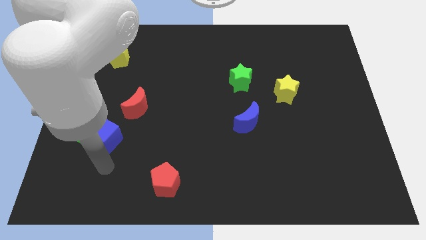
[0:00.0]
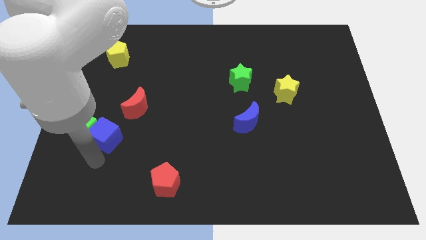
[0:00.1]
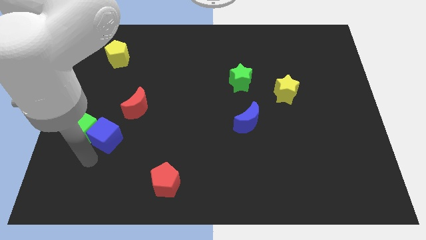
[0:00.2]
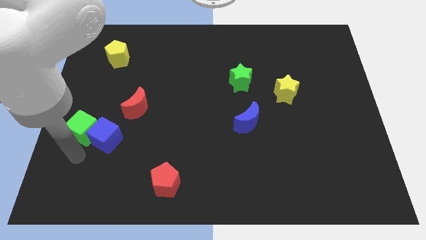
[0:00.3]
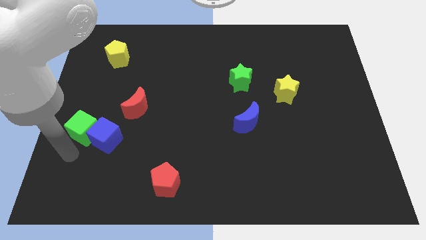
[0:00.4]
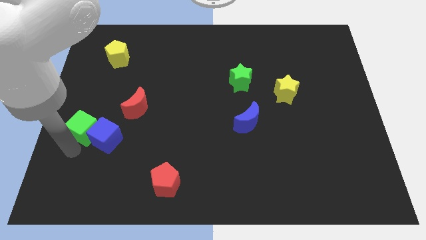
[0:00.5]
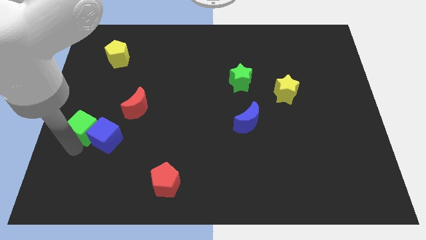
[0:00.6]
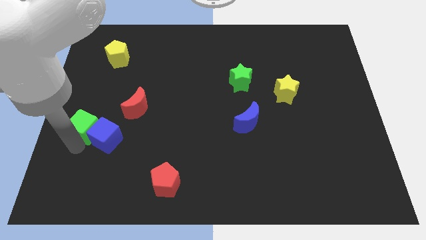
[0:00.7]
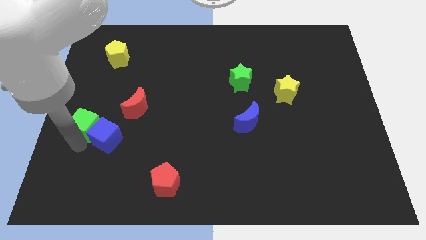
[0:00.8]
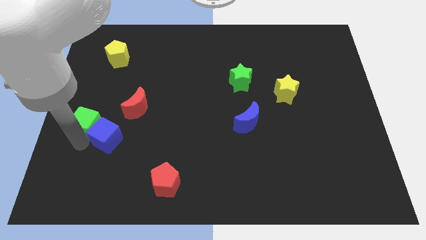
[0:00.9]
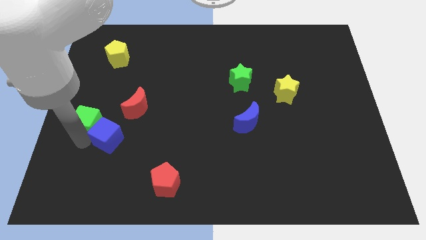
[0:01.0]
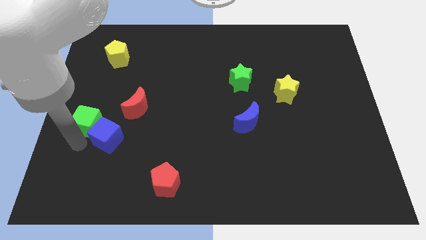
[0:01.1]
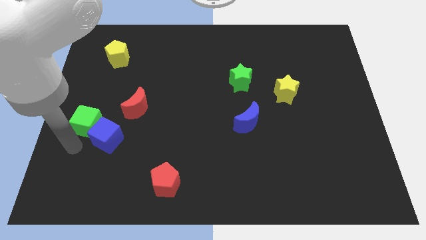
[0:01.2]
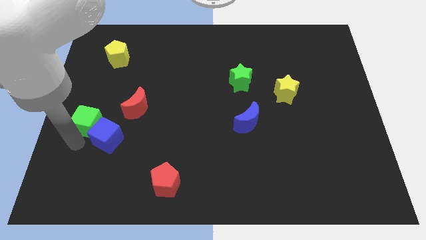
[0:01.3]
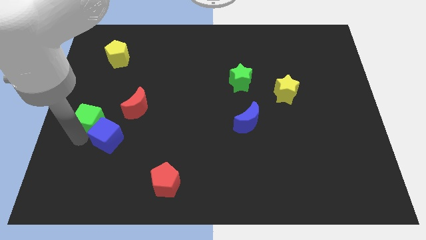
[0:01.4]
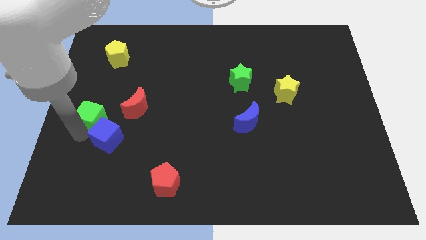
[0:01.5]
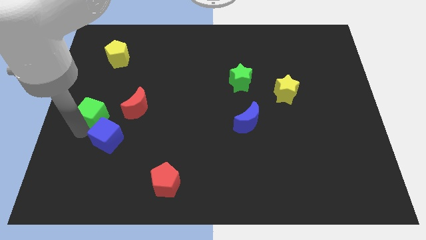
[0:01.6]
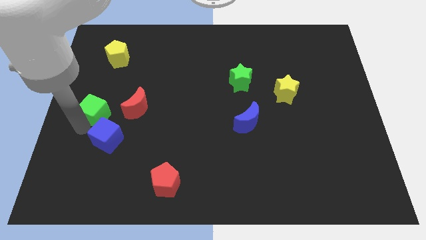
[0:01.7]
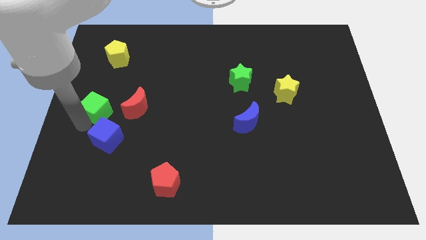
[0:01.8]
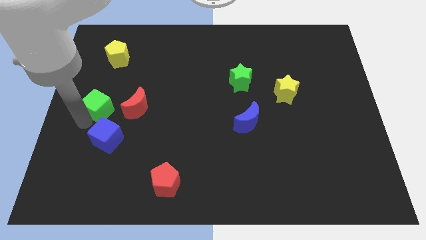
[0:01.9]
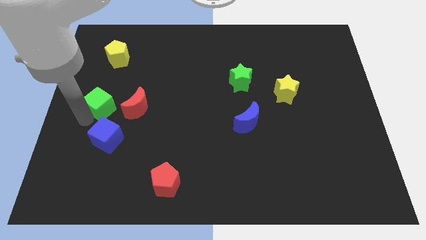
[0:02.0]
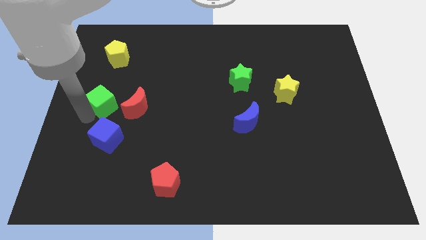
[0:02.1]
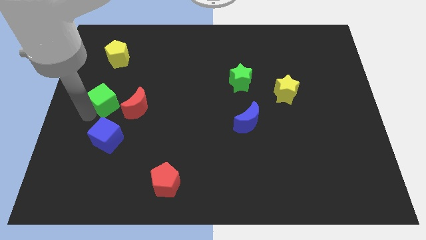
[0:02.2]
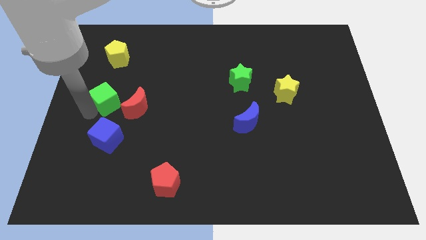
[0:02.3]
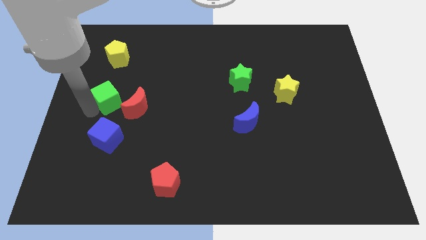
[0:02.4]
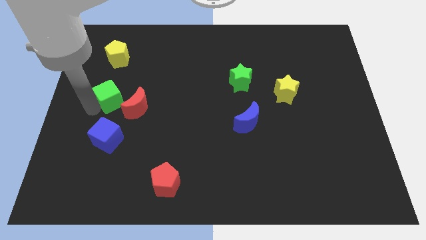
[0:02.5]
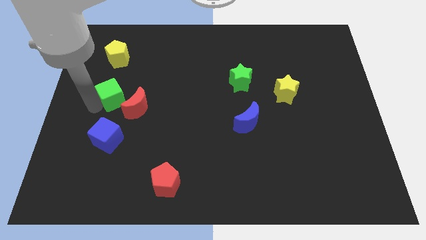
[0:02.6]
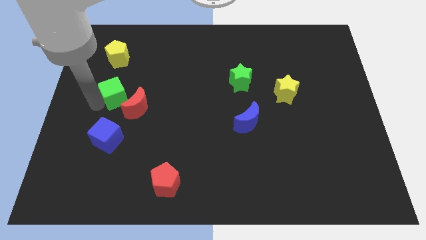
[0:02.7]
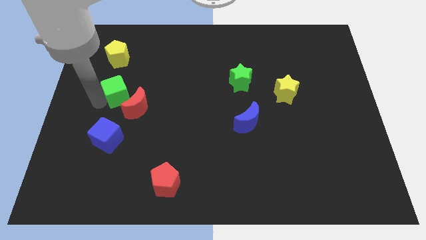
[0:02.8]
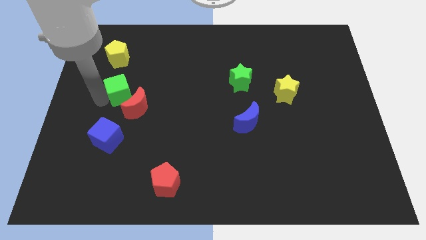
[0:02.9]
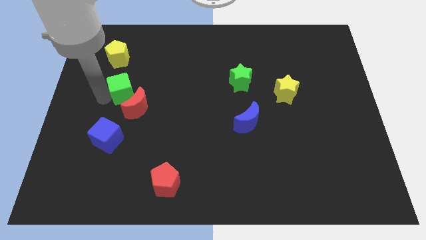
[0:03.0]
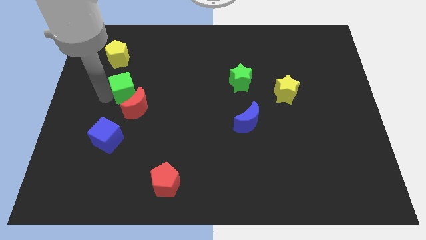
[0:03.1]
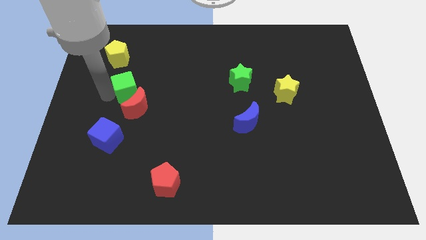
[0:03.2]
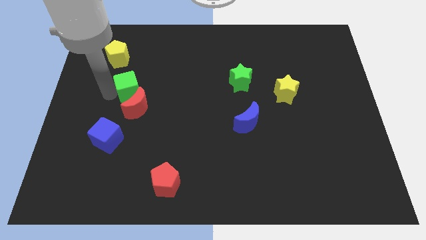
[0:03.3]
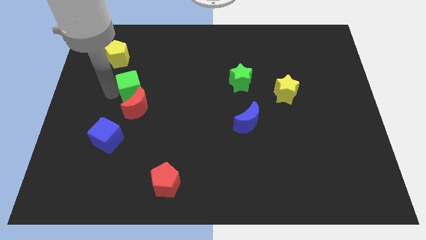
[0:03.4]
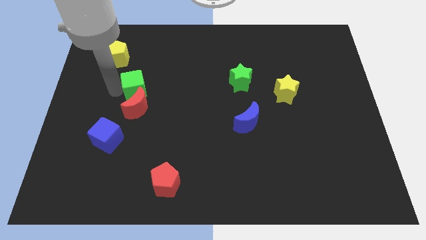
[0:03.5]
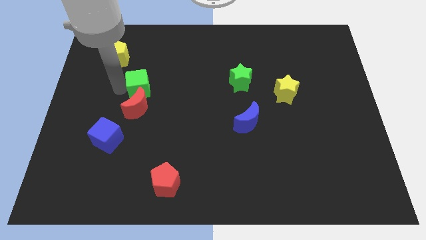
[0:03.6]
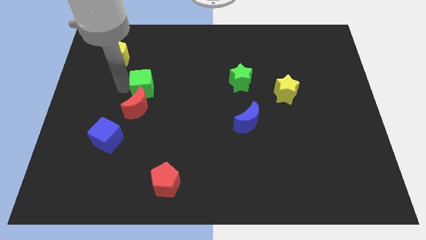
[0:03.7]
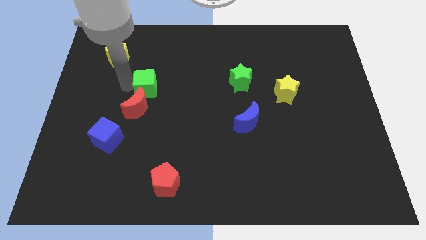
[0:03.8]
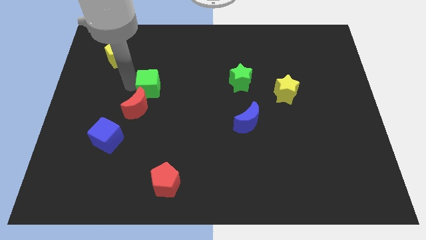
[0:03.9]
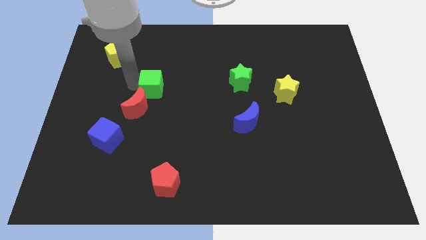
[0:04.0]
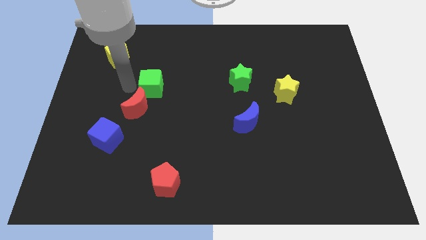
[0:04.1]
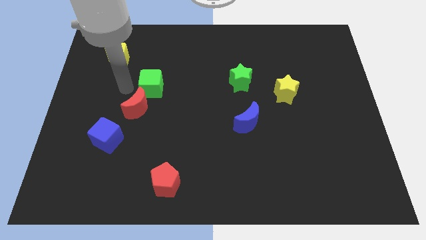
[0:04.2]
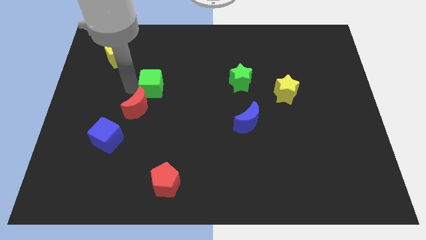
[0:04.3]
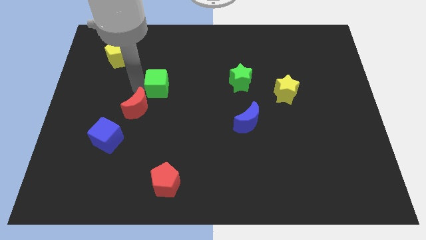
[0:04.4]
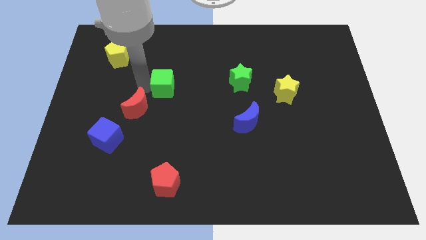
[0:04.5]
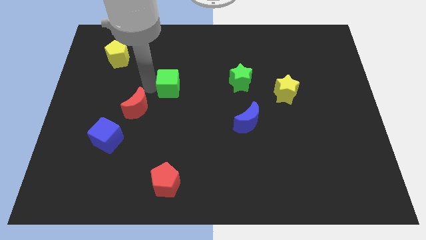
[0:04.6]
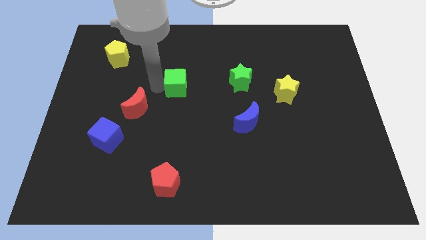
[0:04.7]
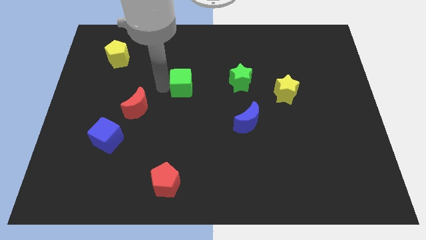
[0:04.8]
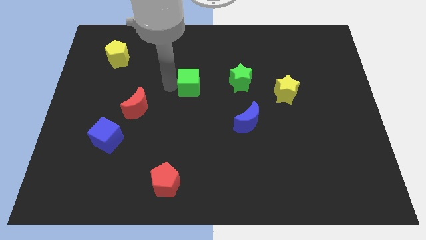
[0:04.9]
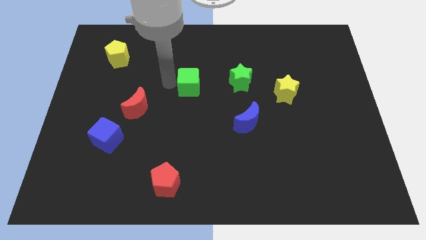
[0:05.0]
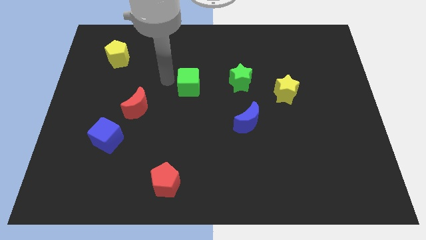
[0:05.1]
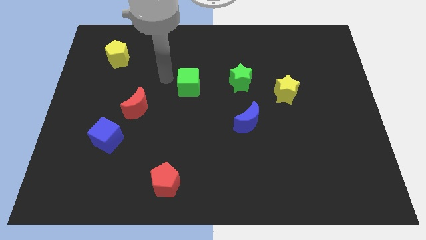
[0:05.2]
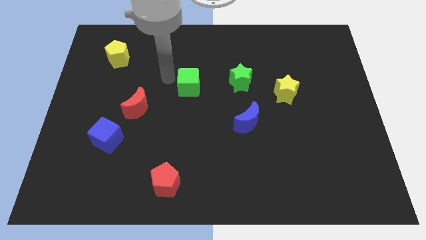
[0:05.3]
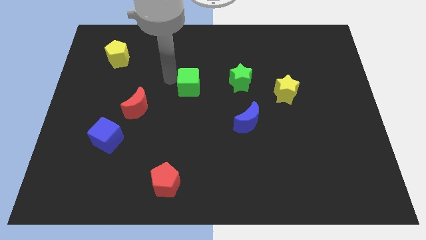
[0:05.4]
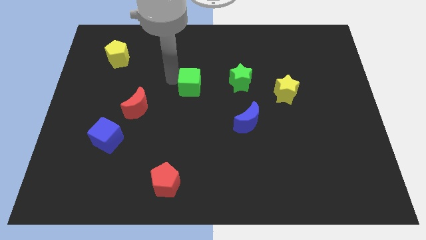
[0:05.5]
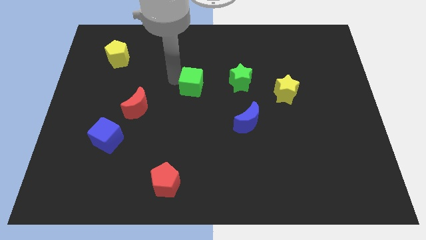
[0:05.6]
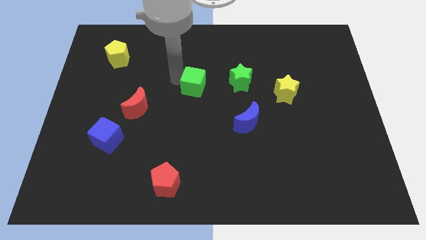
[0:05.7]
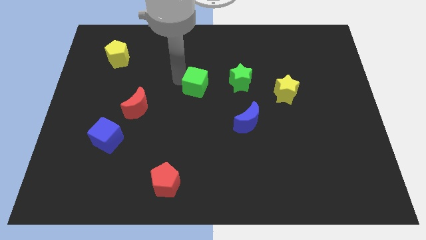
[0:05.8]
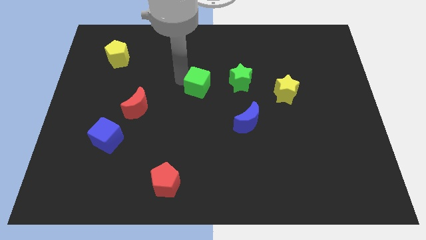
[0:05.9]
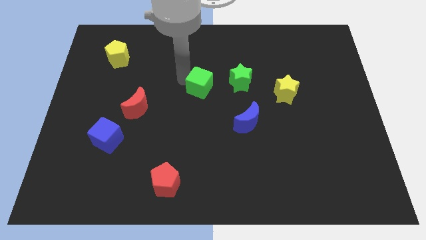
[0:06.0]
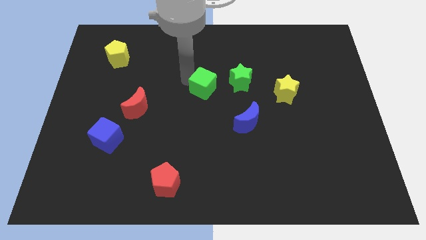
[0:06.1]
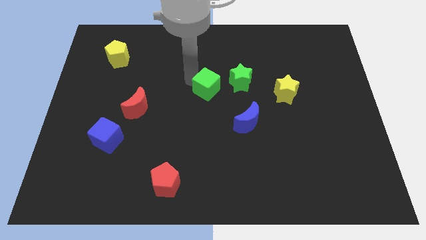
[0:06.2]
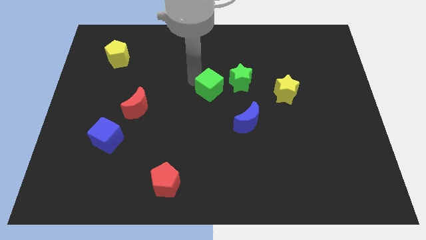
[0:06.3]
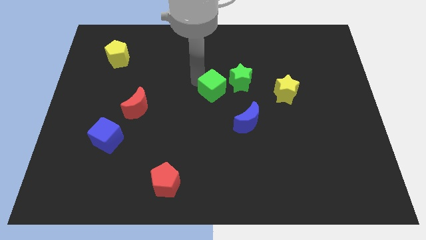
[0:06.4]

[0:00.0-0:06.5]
slide the green cube diagonally up and to the left of the blue moon
